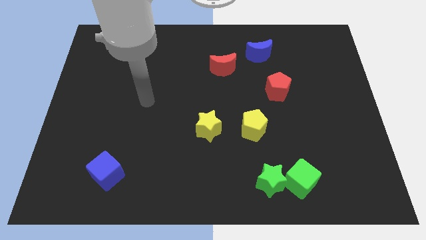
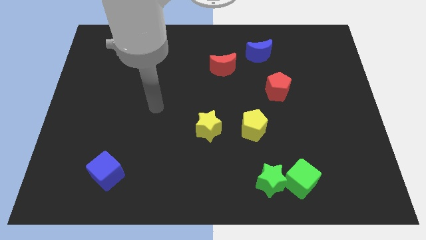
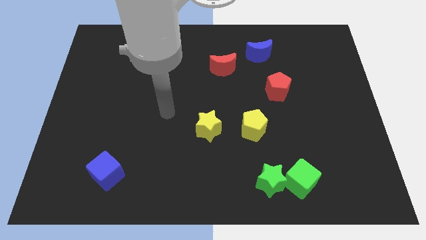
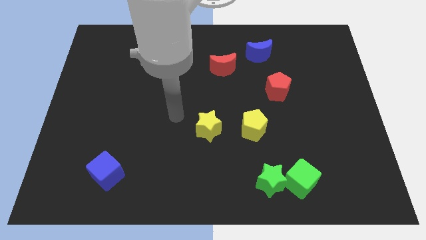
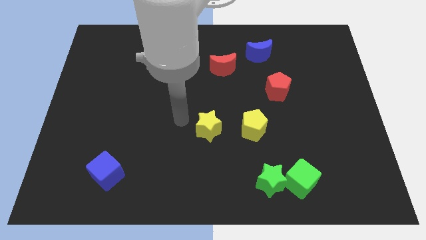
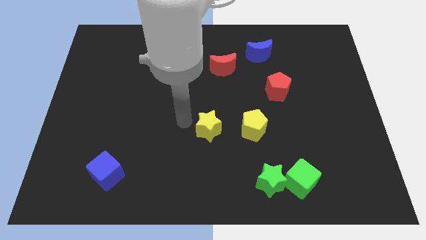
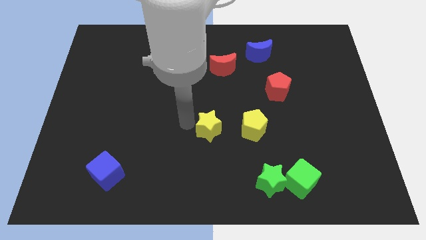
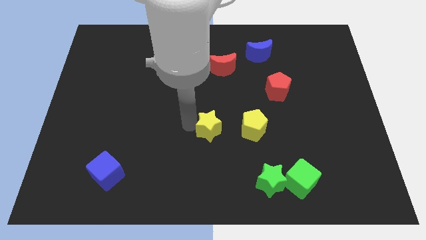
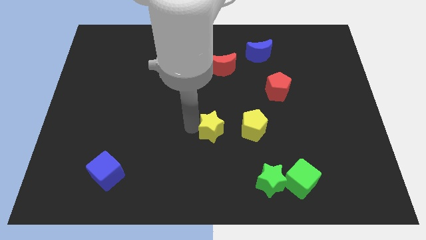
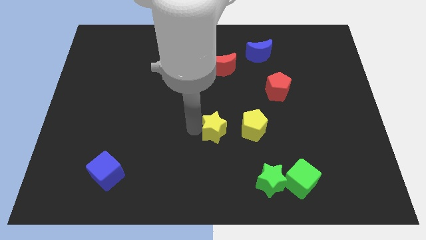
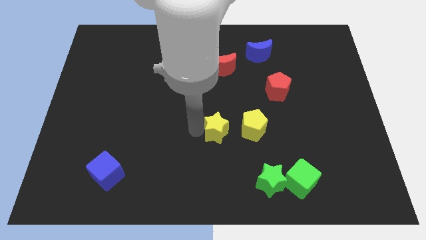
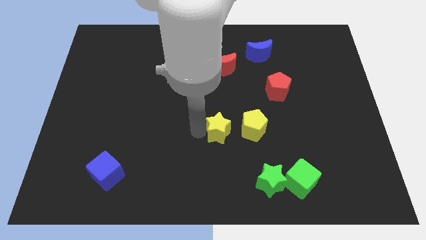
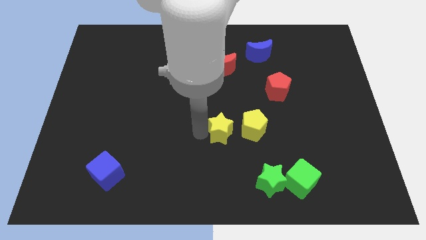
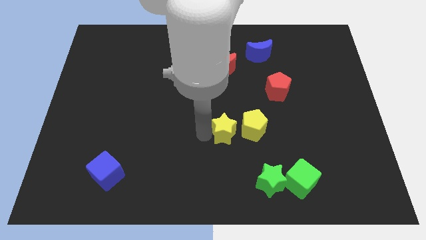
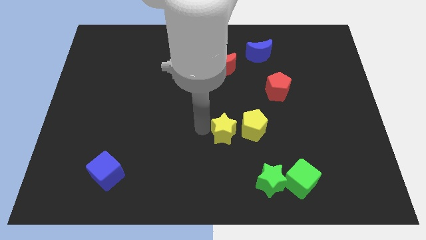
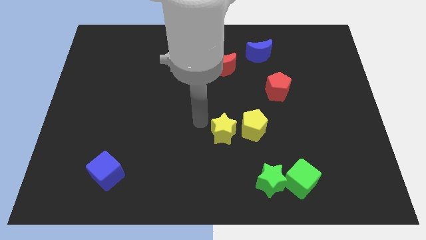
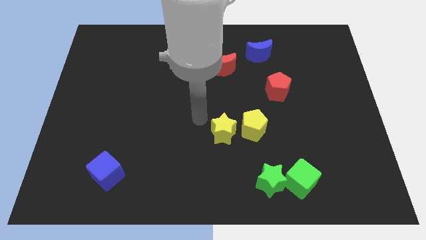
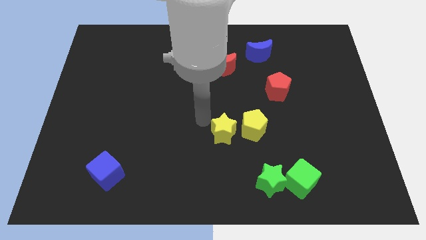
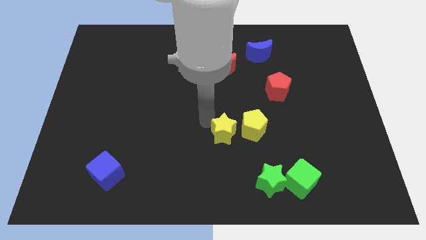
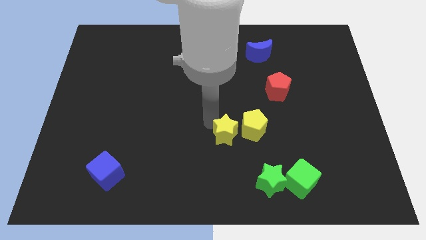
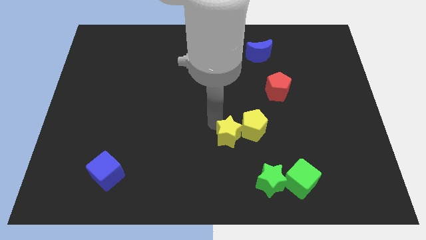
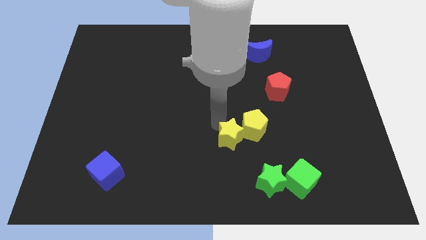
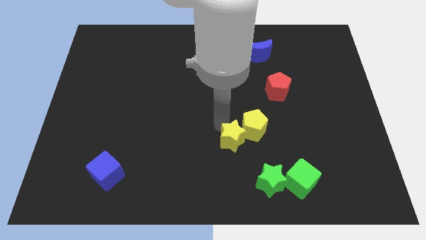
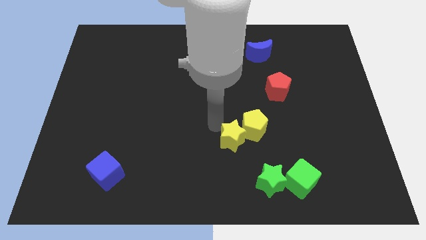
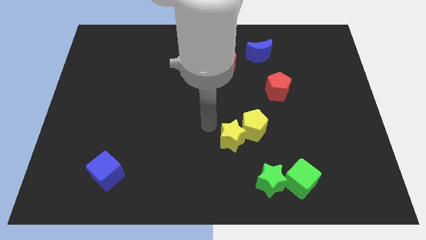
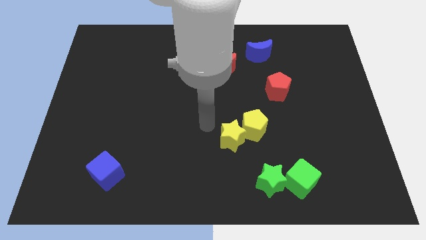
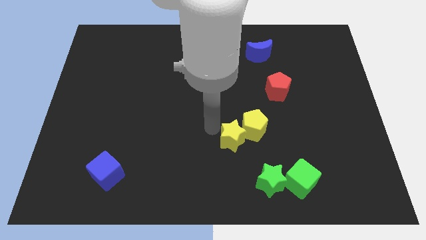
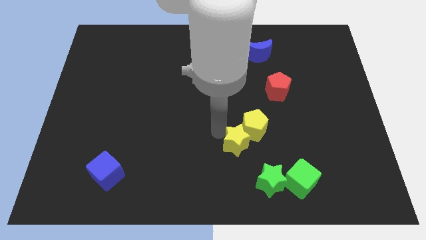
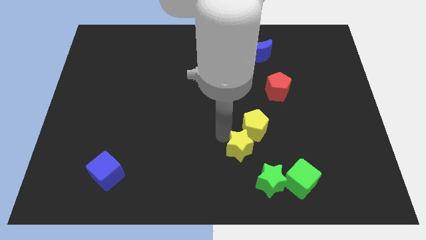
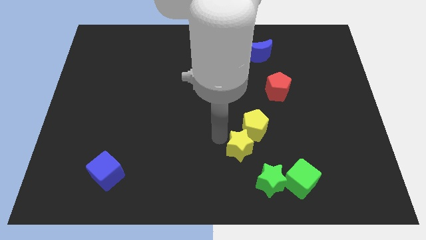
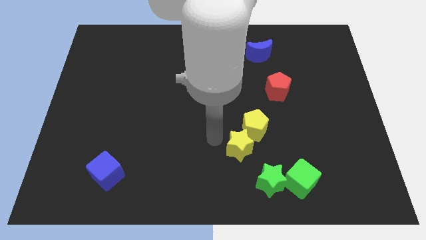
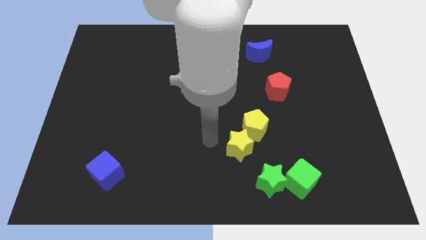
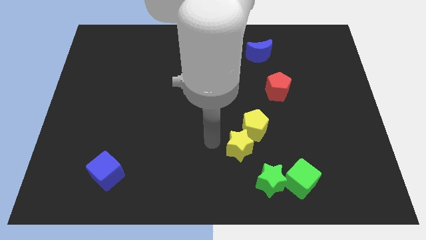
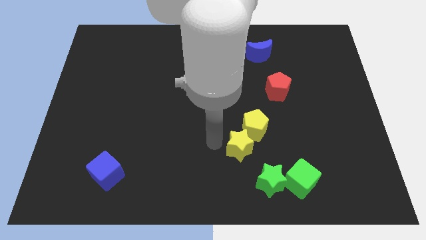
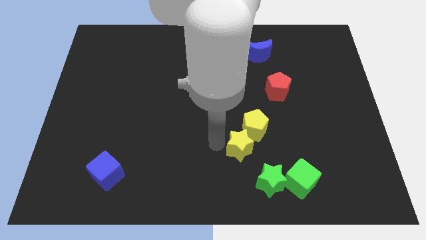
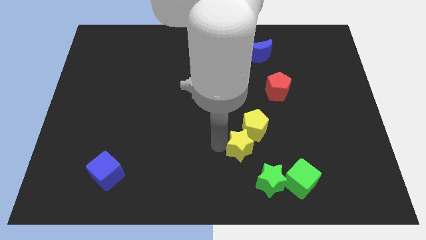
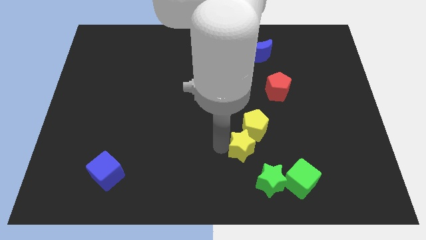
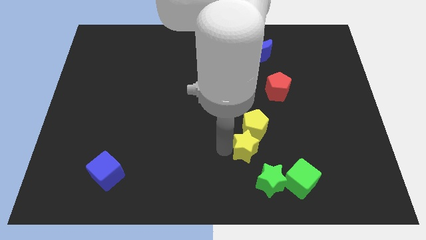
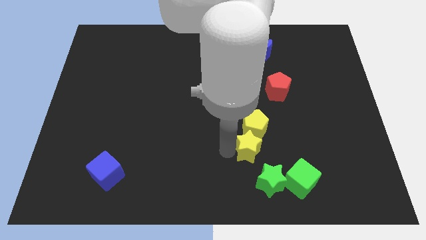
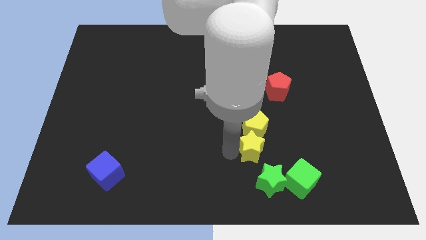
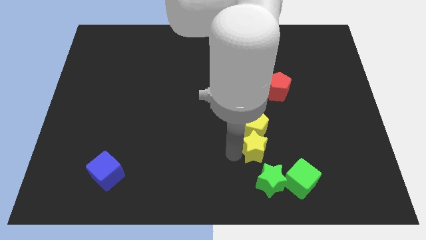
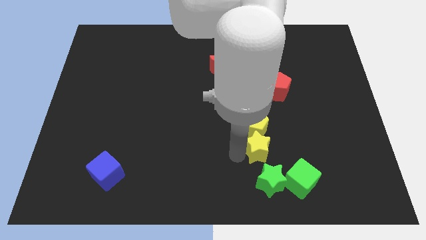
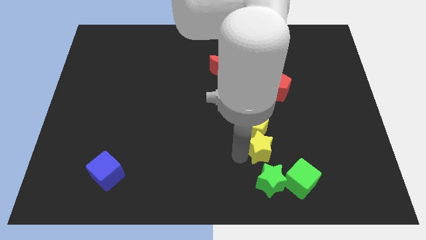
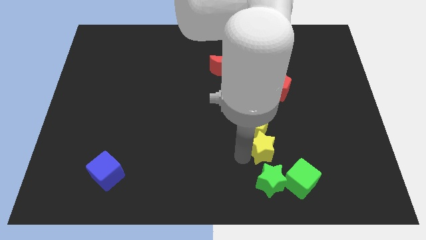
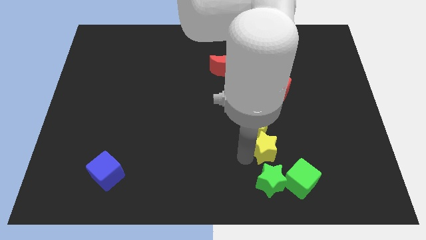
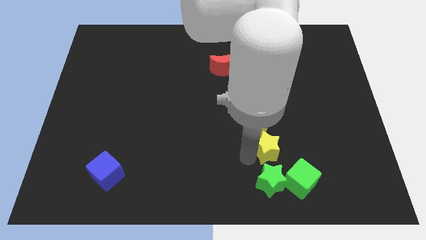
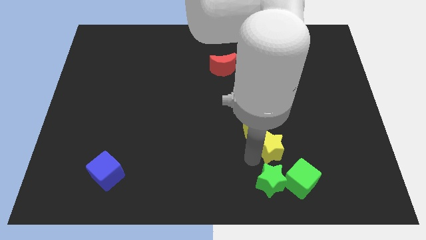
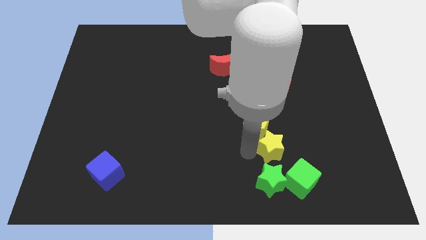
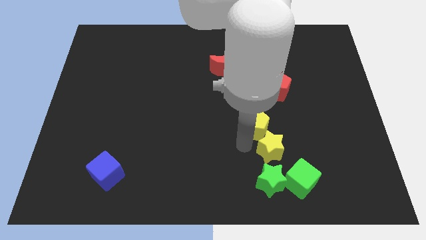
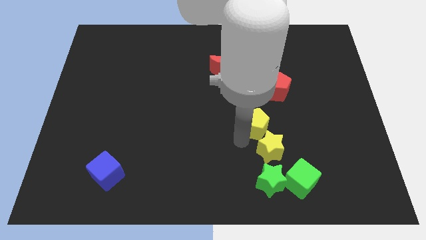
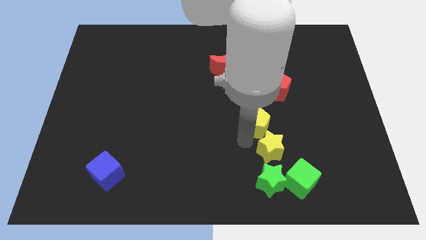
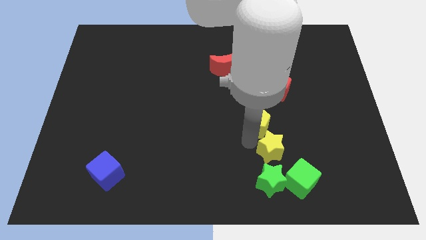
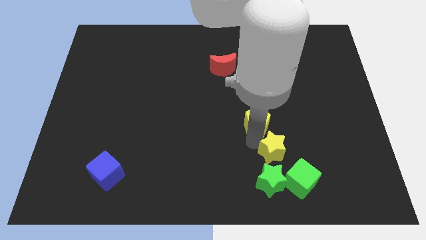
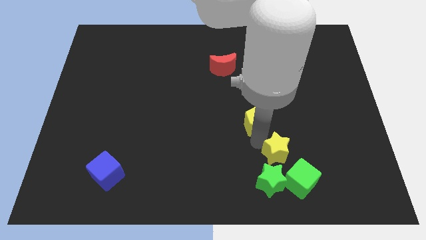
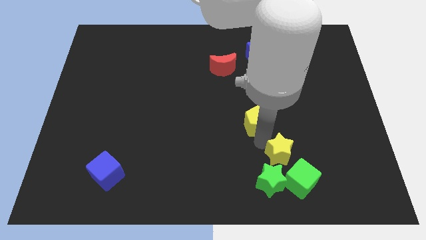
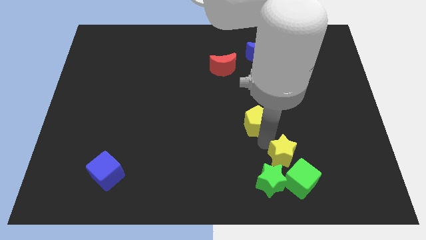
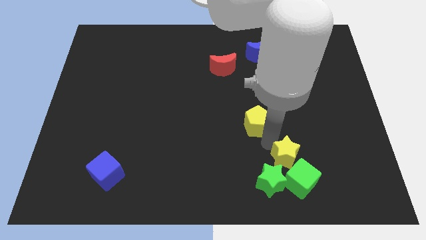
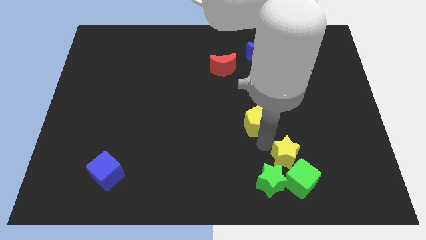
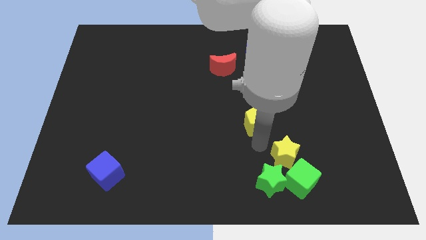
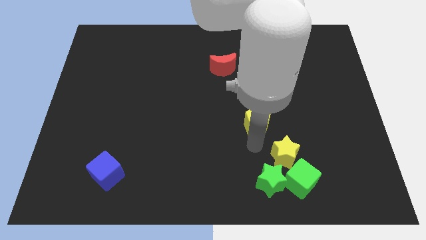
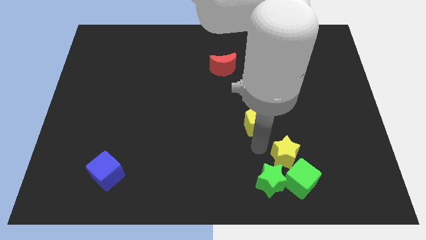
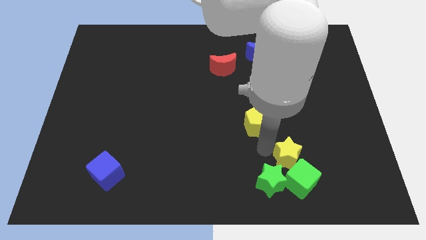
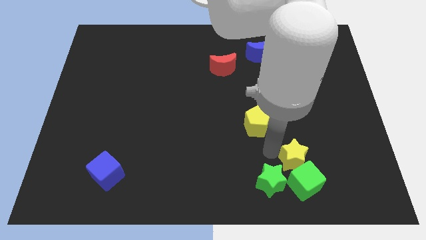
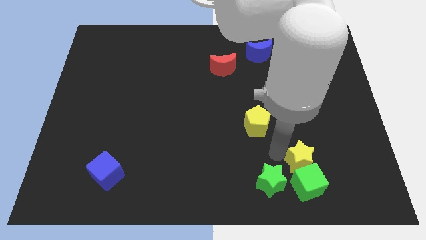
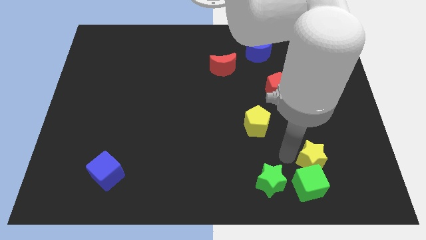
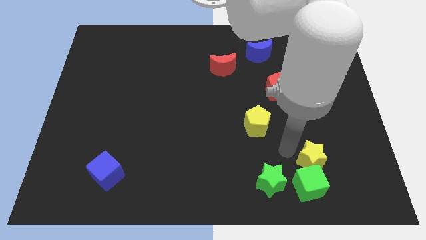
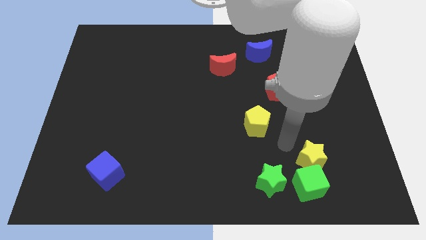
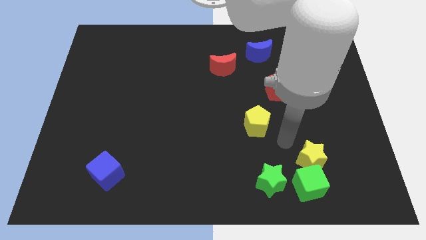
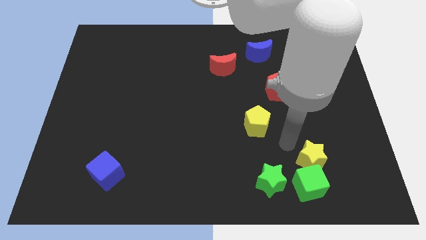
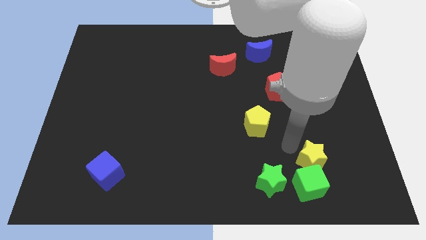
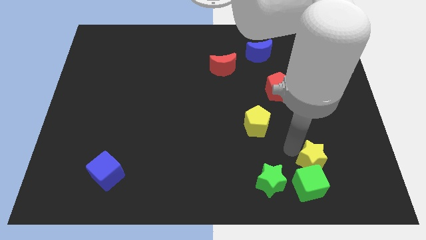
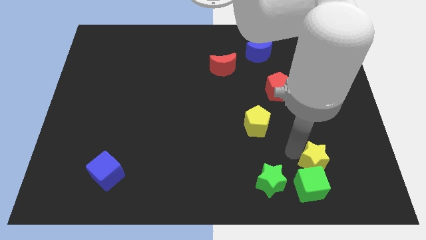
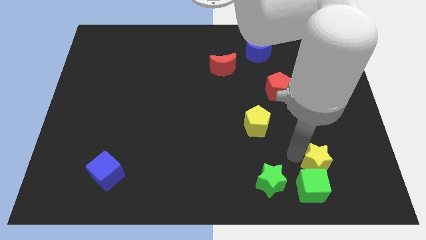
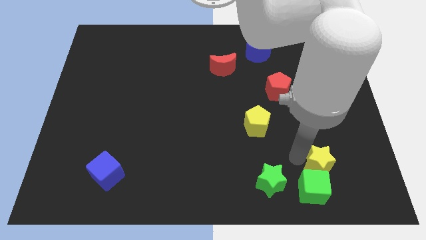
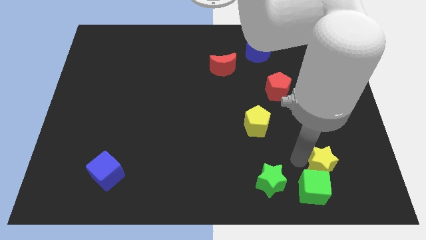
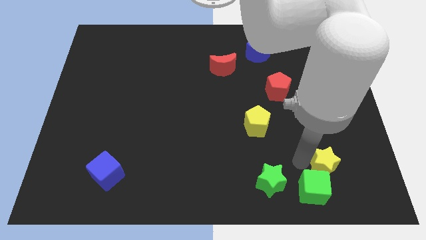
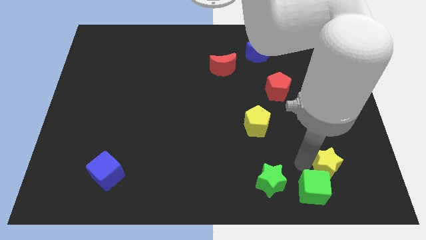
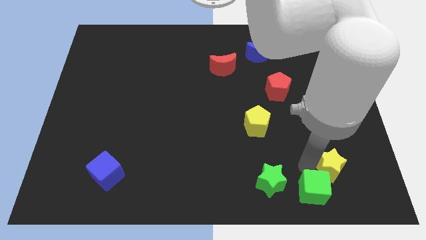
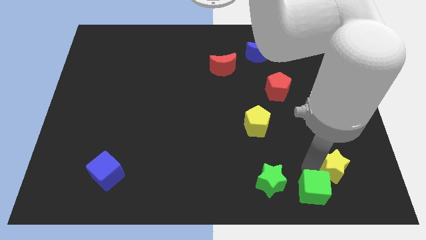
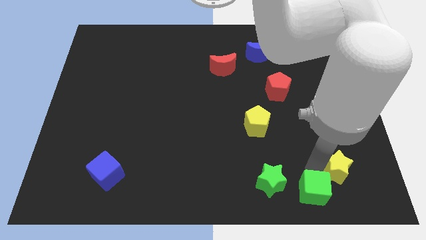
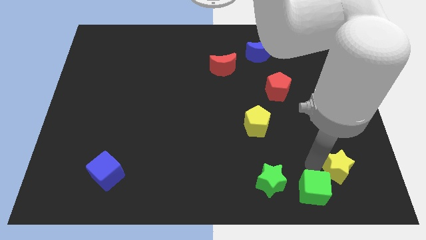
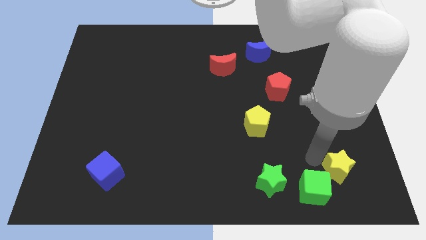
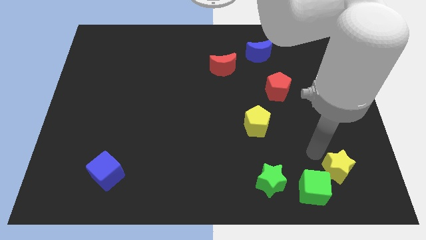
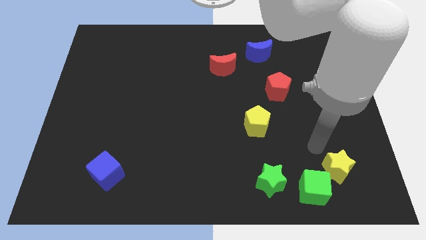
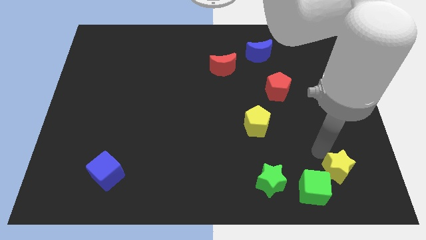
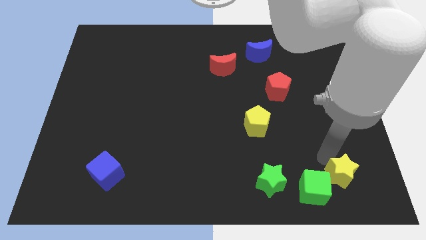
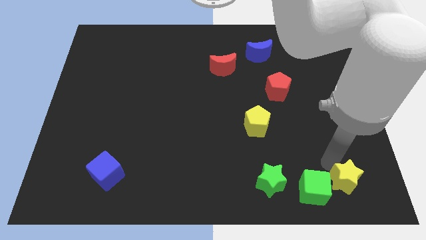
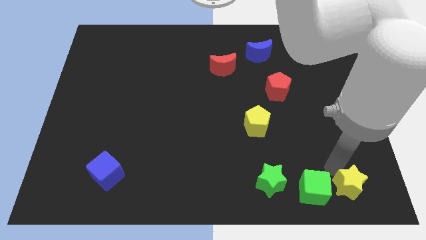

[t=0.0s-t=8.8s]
slide the yellow star to the bottom right
